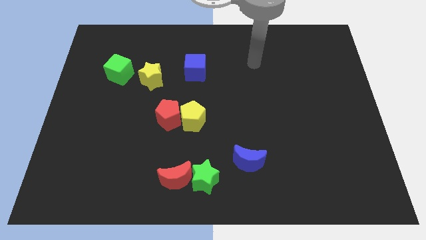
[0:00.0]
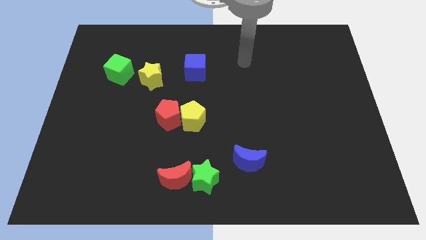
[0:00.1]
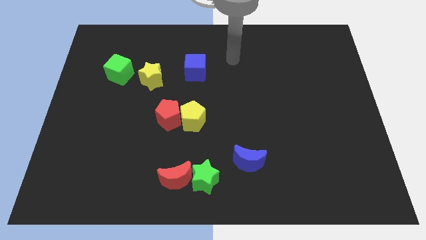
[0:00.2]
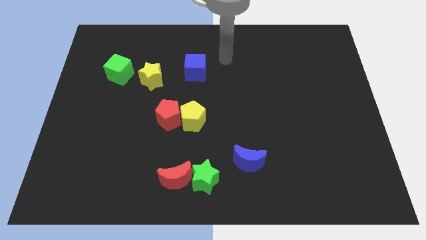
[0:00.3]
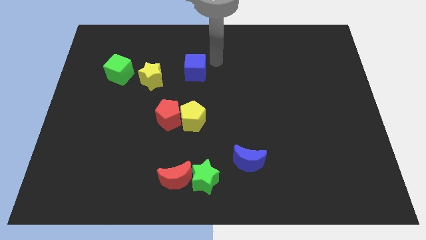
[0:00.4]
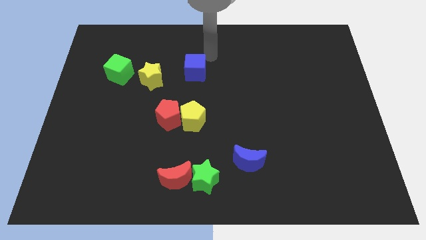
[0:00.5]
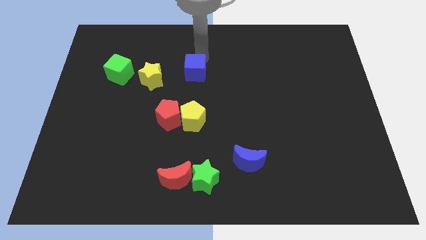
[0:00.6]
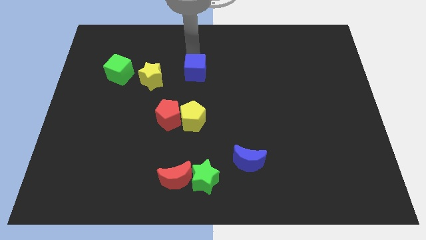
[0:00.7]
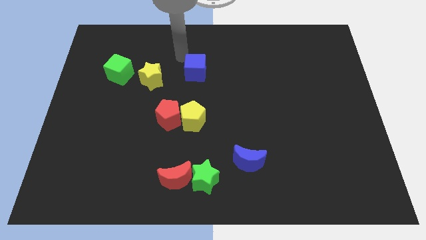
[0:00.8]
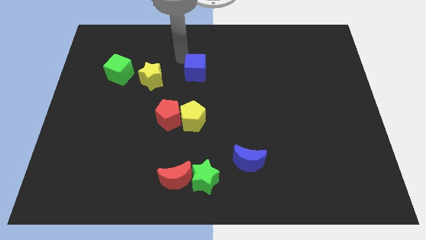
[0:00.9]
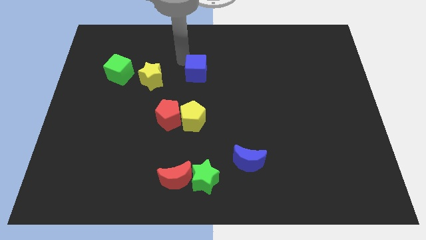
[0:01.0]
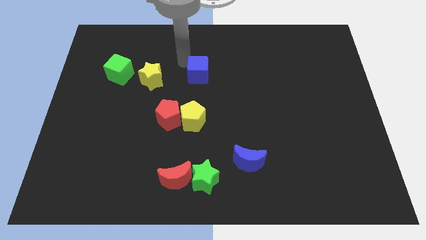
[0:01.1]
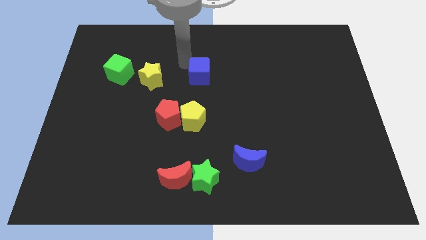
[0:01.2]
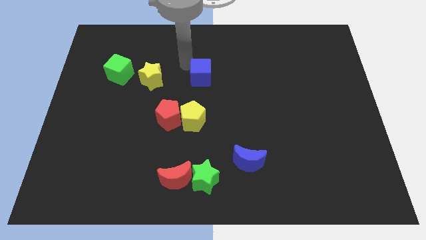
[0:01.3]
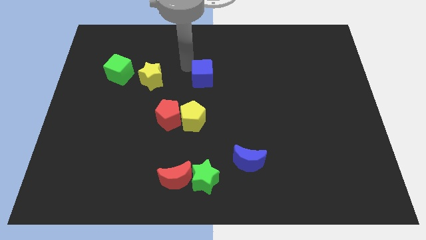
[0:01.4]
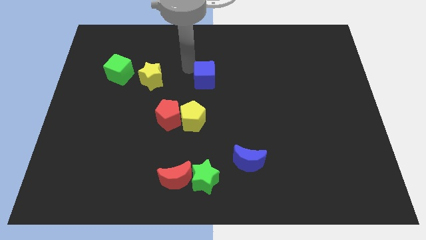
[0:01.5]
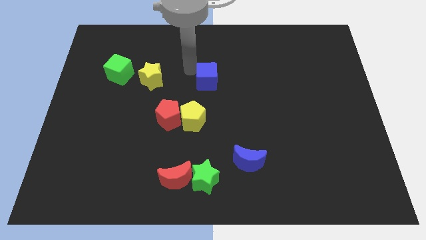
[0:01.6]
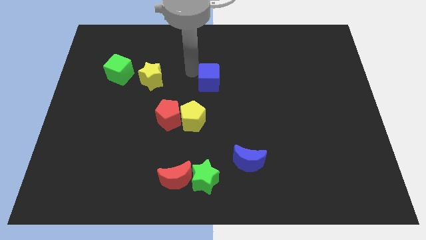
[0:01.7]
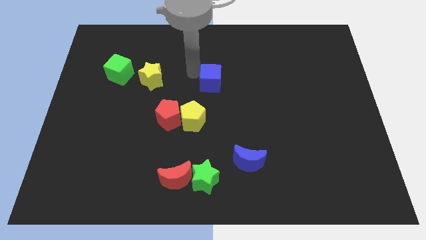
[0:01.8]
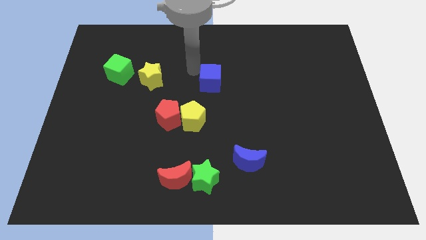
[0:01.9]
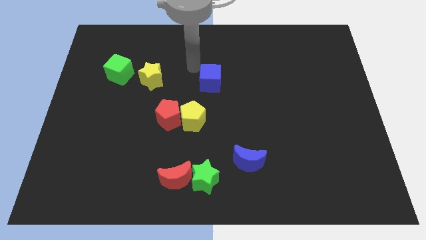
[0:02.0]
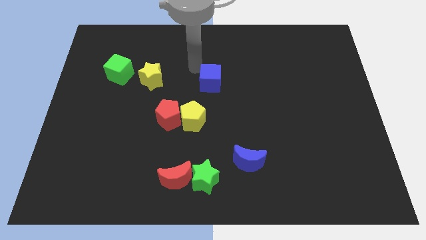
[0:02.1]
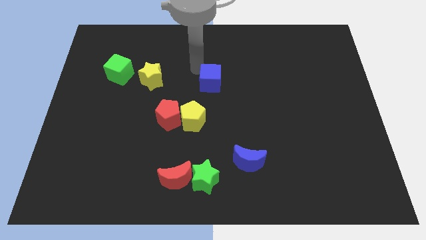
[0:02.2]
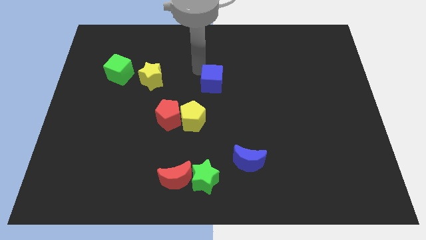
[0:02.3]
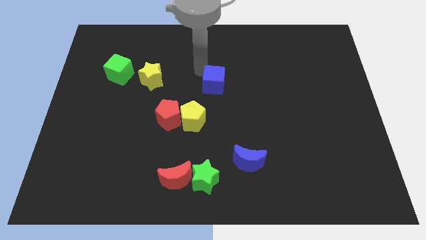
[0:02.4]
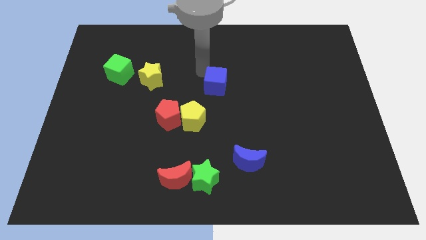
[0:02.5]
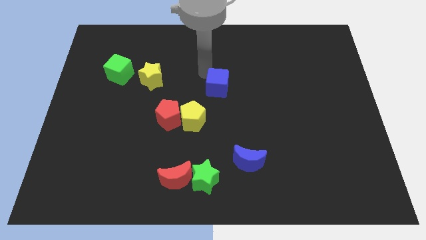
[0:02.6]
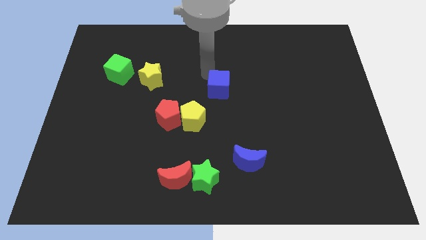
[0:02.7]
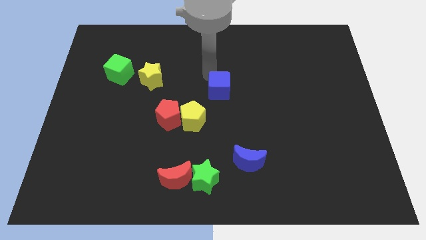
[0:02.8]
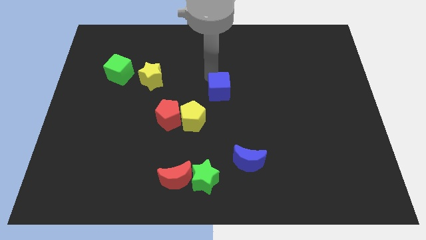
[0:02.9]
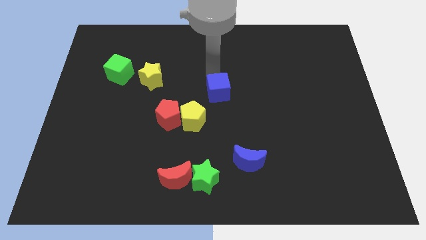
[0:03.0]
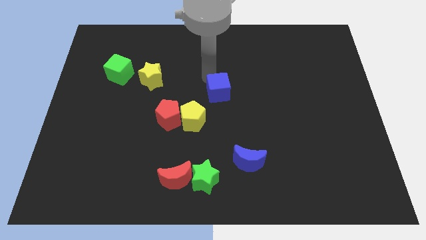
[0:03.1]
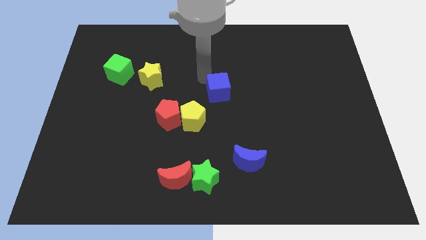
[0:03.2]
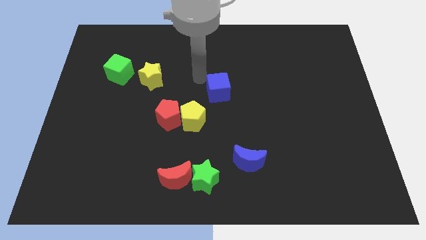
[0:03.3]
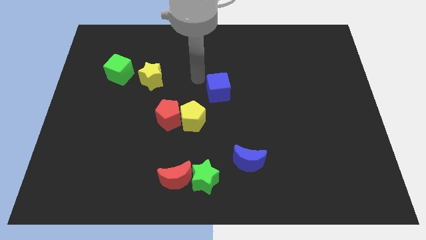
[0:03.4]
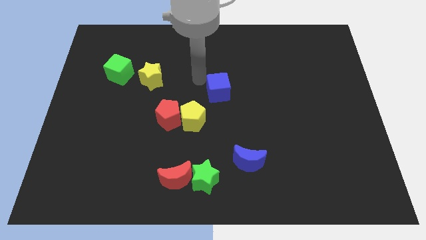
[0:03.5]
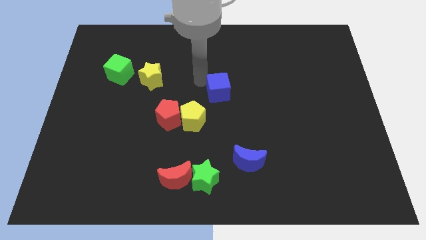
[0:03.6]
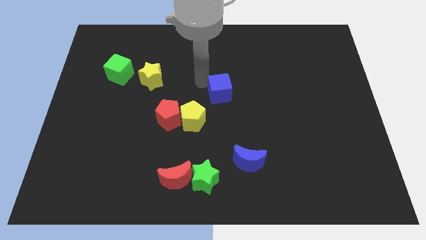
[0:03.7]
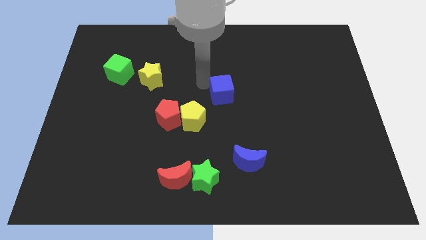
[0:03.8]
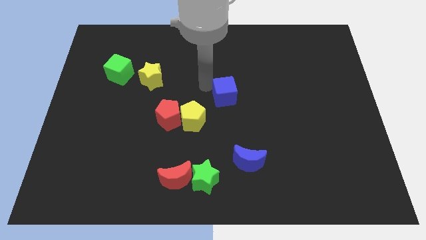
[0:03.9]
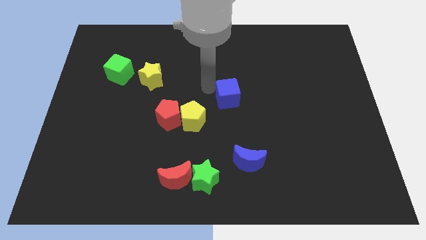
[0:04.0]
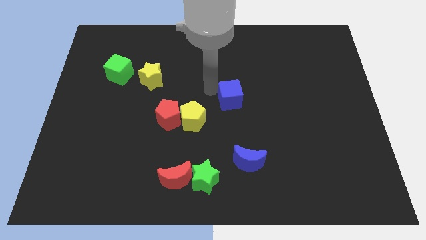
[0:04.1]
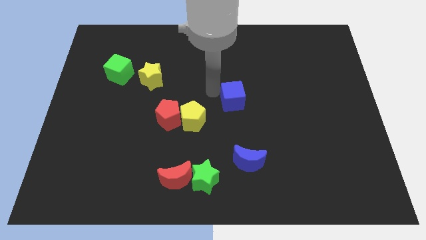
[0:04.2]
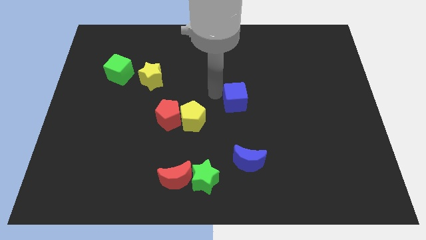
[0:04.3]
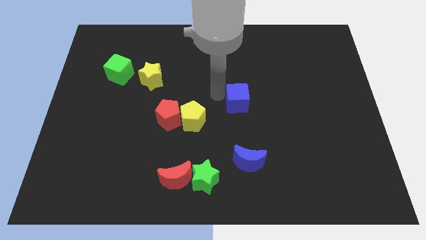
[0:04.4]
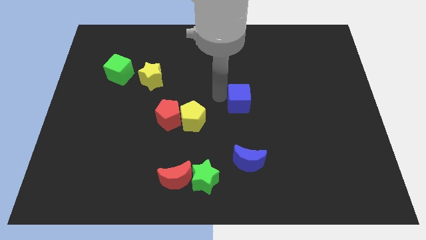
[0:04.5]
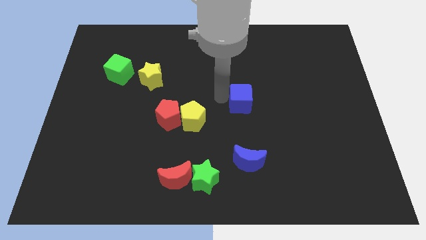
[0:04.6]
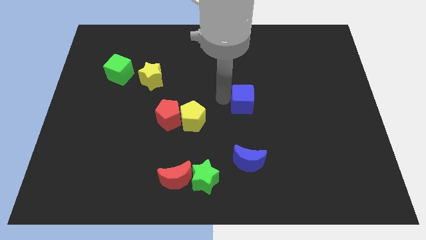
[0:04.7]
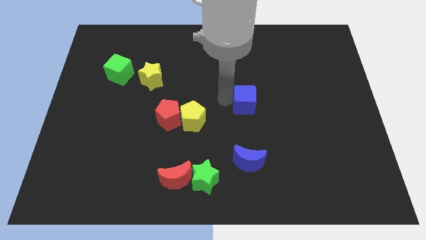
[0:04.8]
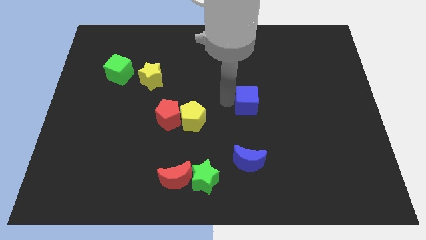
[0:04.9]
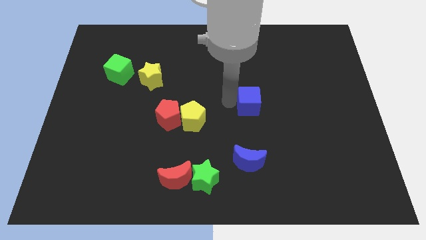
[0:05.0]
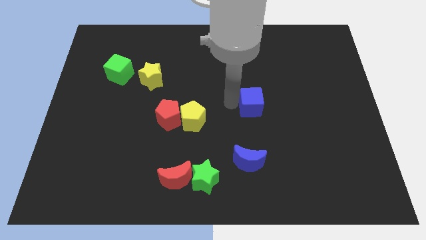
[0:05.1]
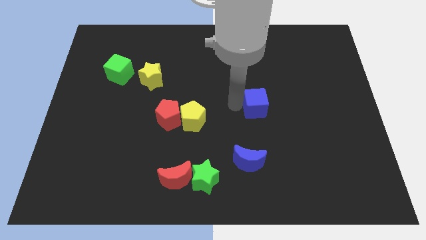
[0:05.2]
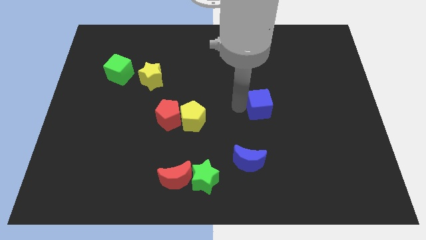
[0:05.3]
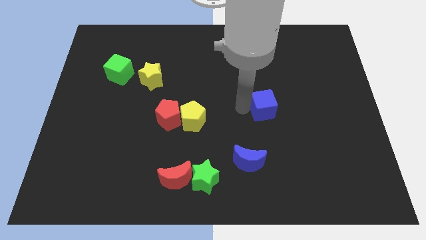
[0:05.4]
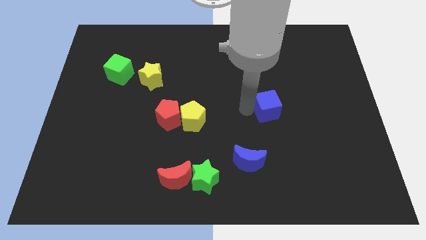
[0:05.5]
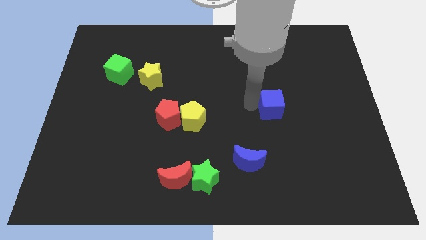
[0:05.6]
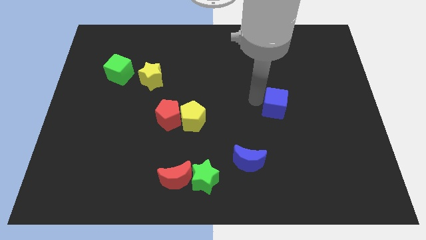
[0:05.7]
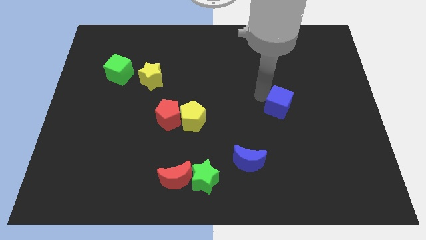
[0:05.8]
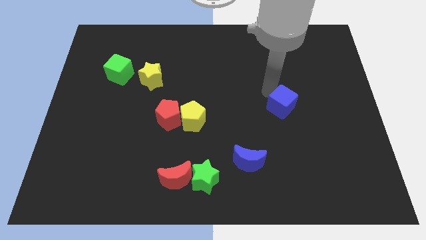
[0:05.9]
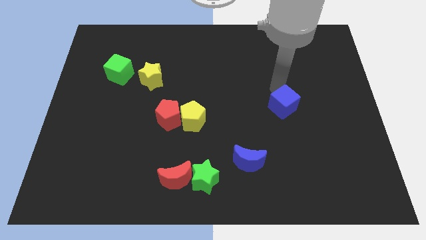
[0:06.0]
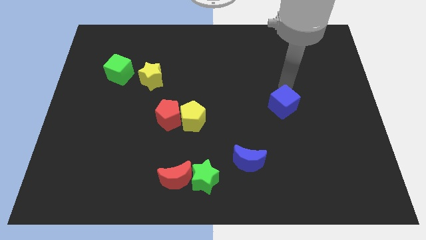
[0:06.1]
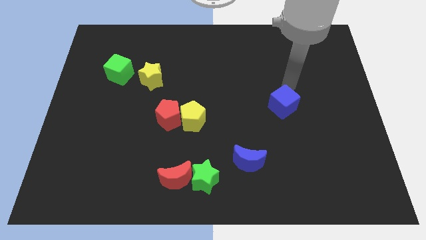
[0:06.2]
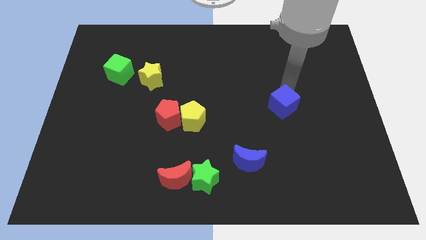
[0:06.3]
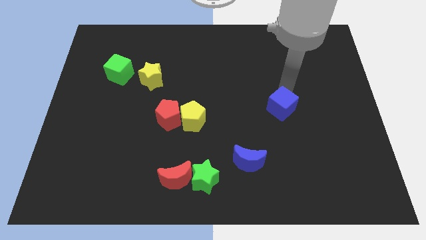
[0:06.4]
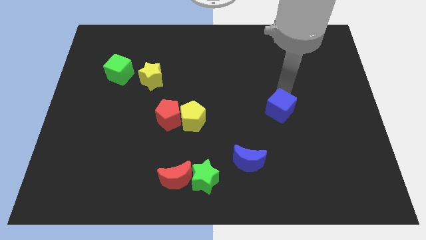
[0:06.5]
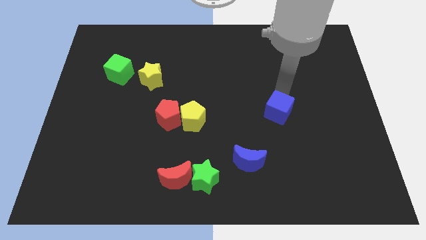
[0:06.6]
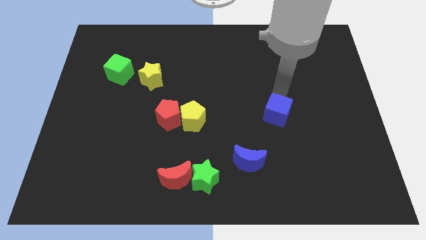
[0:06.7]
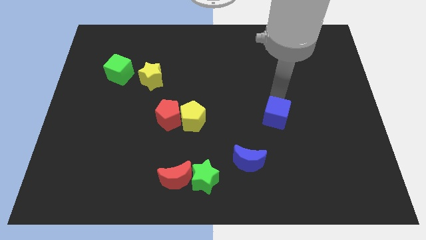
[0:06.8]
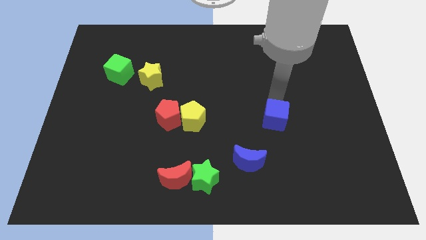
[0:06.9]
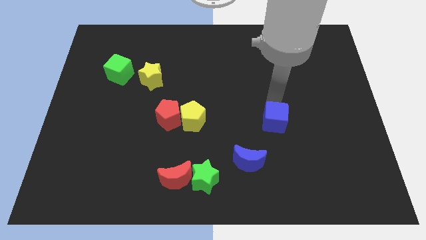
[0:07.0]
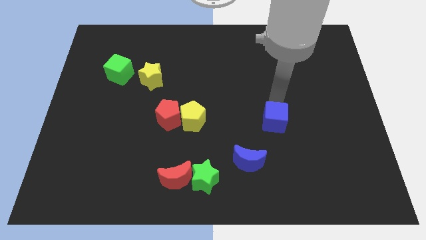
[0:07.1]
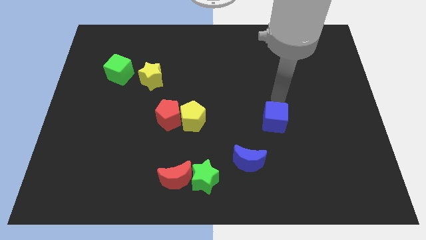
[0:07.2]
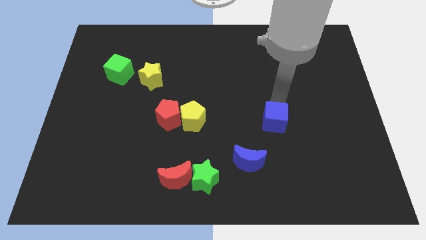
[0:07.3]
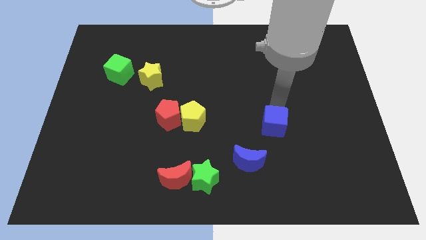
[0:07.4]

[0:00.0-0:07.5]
move the blue cube to the top right side of the blue moon
